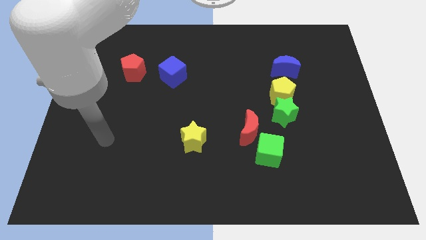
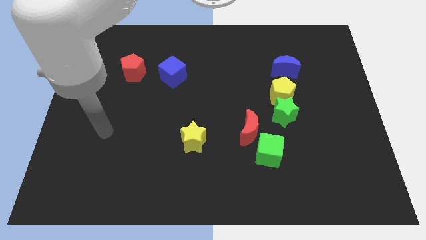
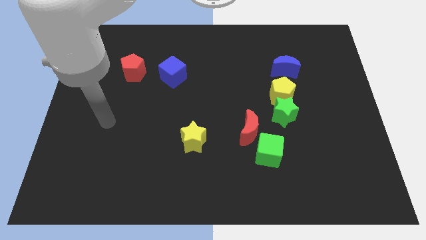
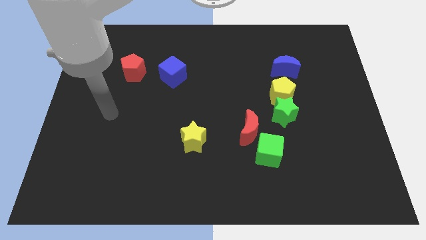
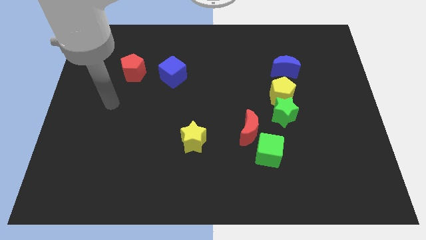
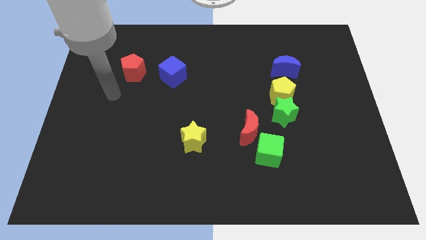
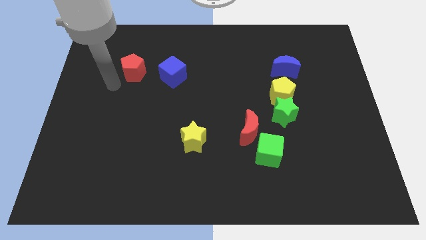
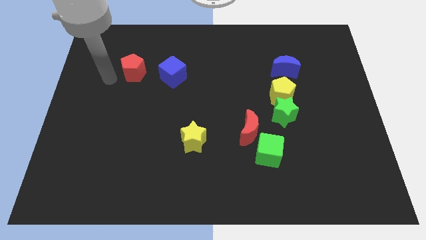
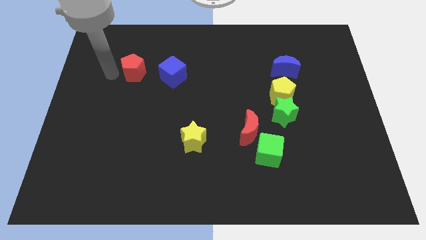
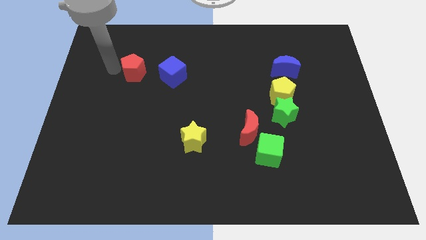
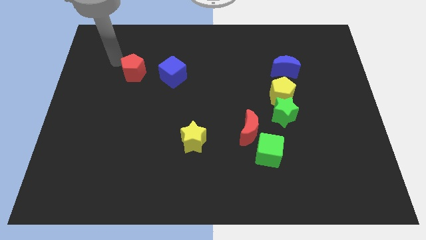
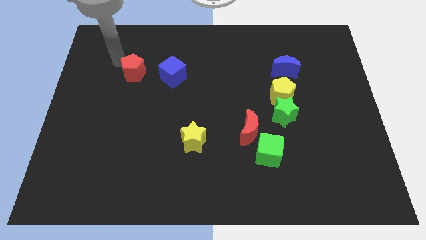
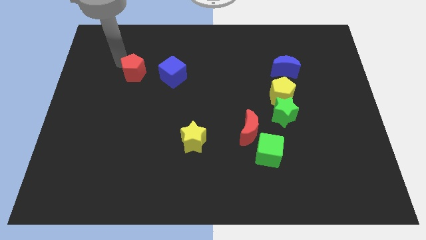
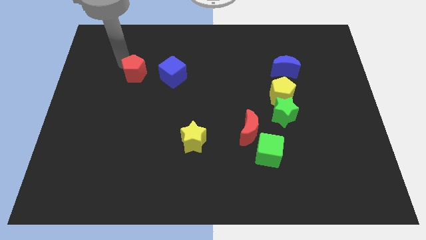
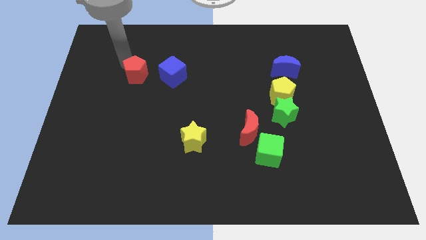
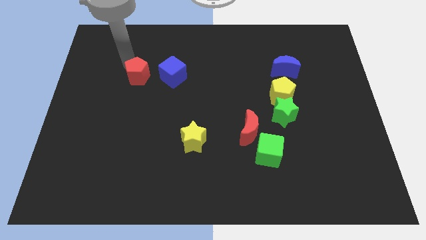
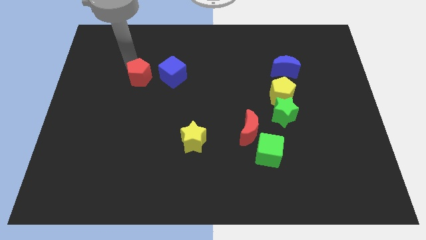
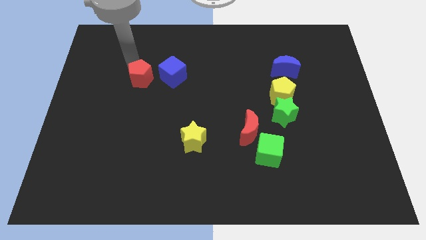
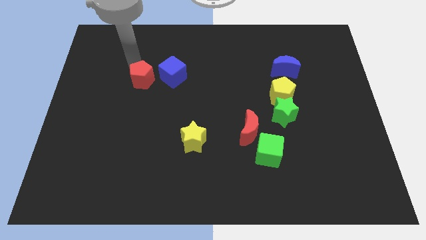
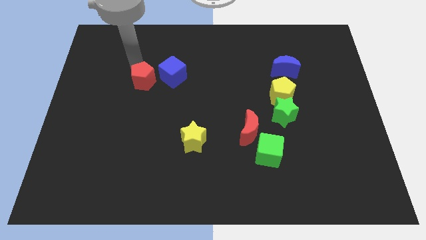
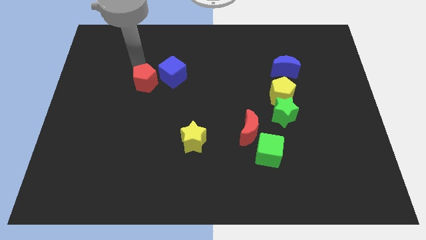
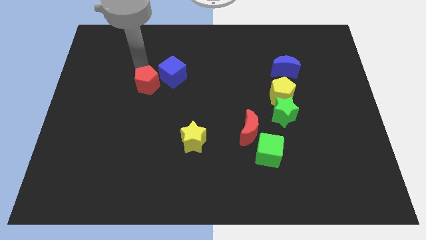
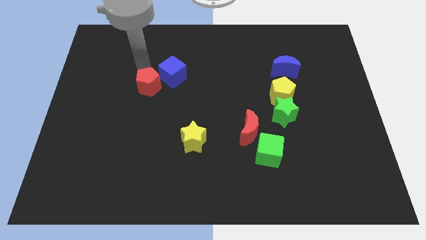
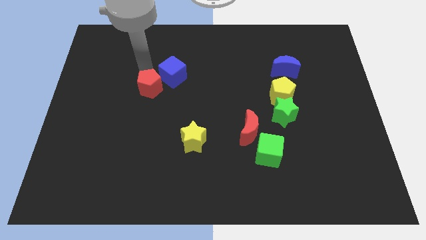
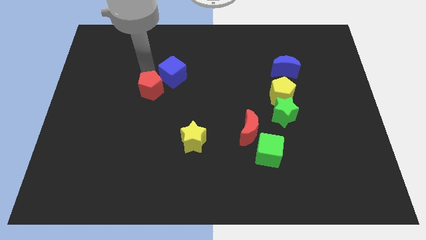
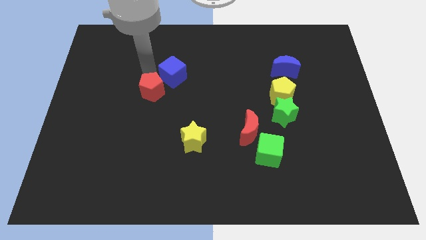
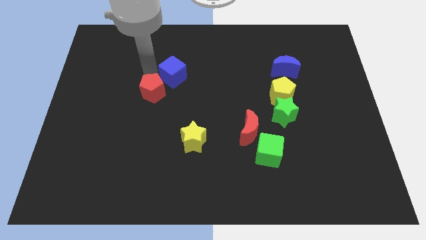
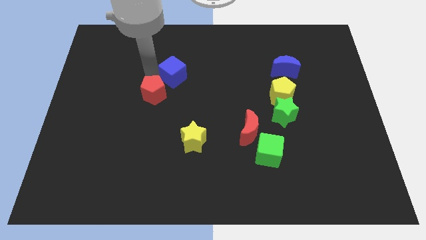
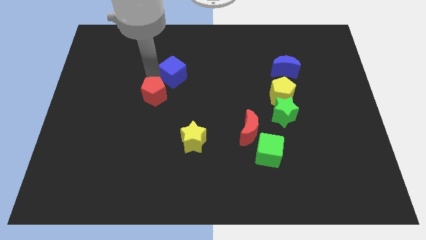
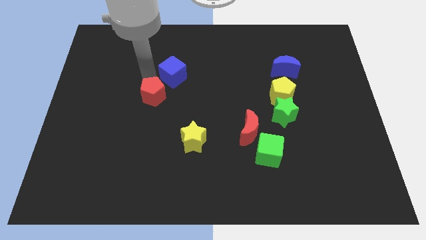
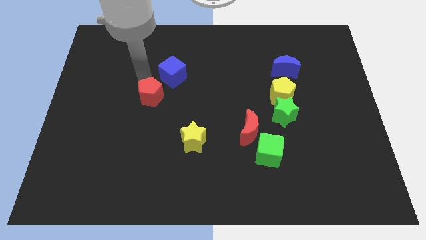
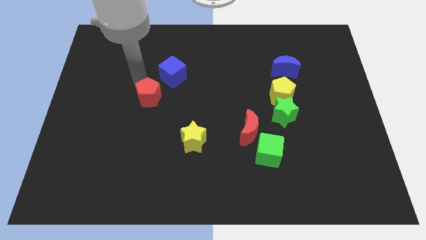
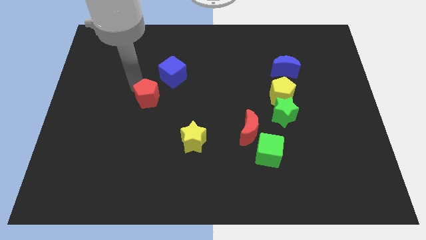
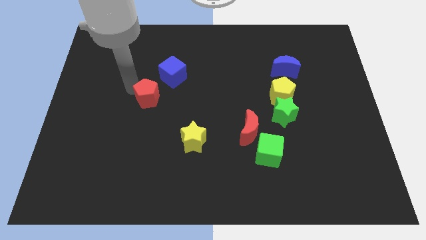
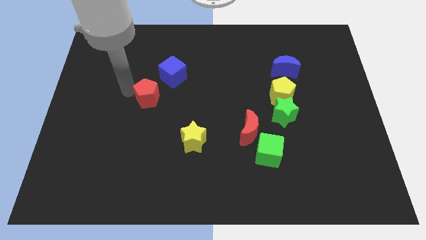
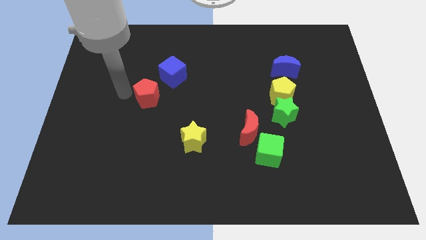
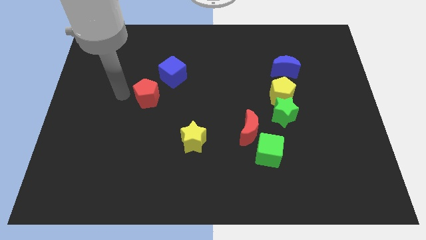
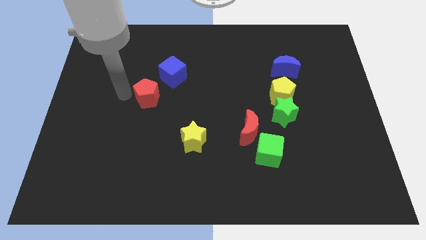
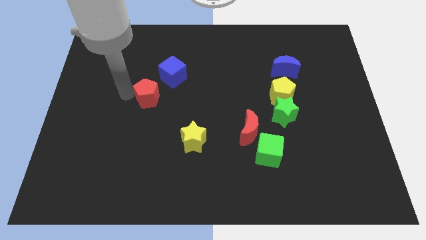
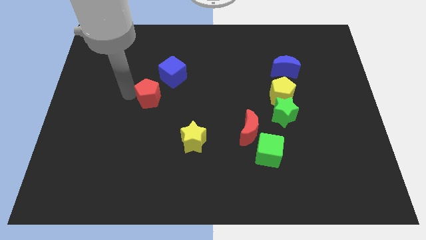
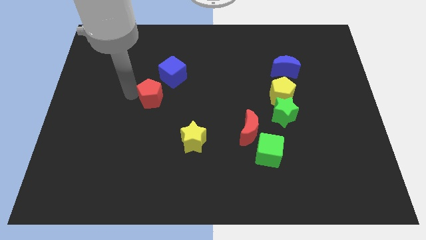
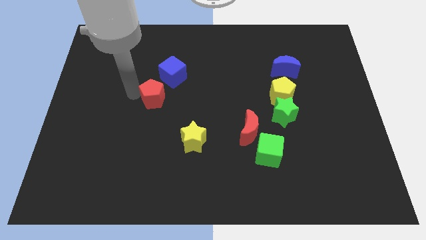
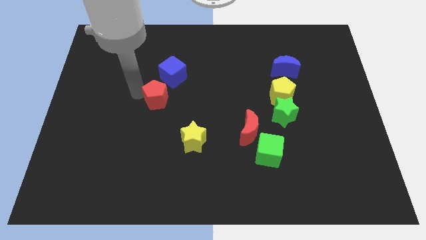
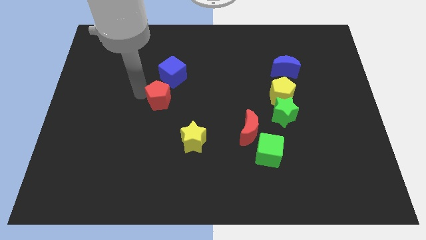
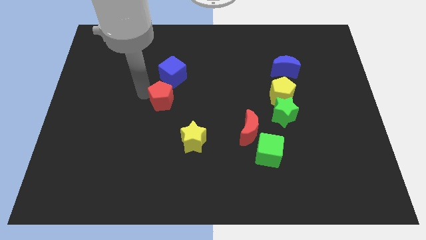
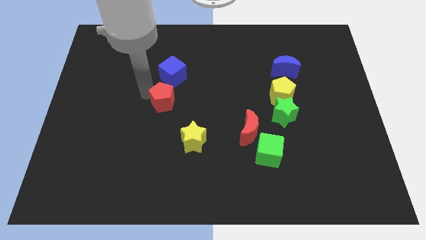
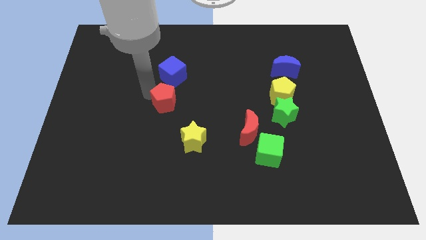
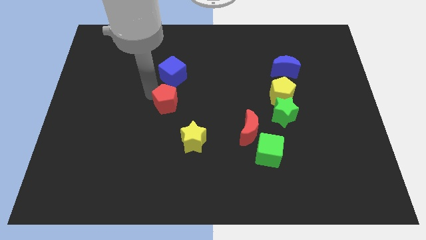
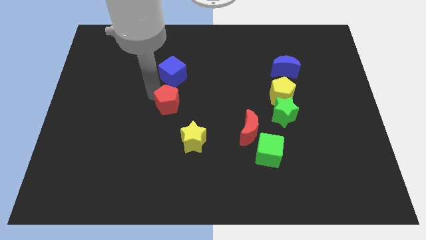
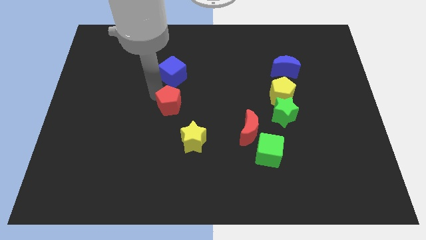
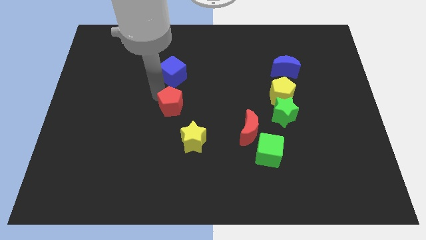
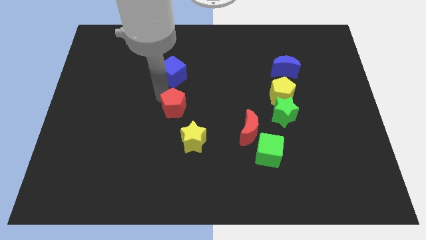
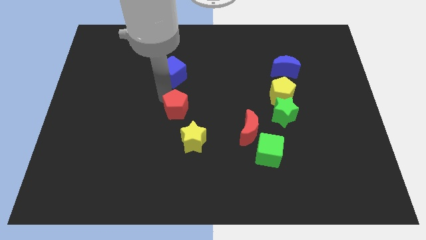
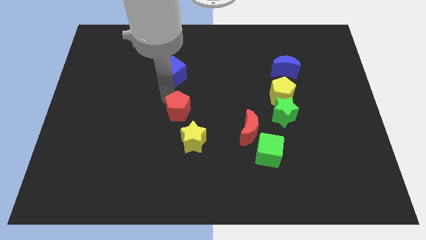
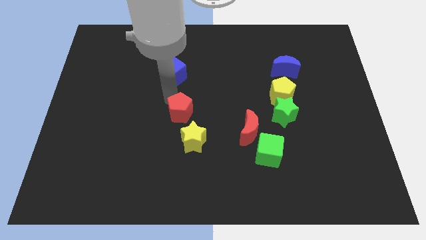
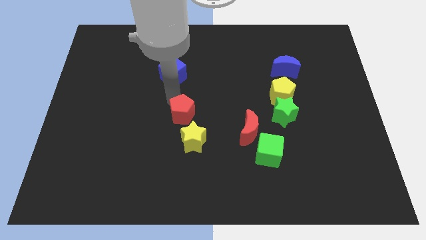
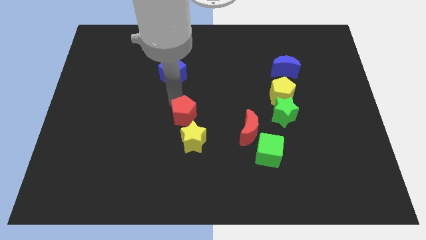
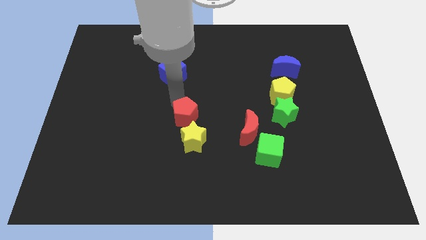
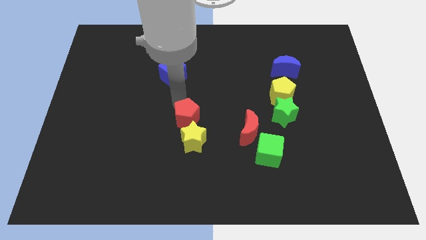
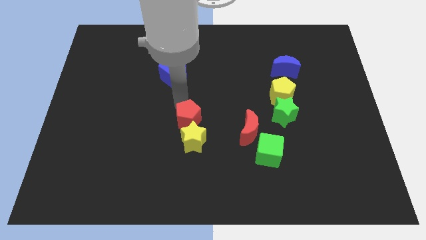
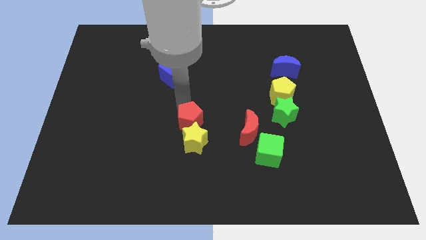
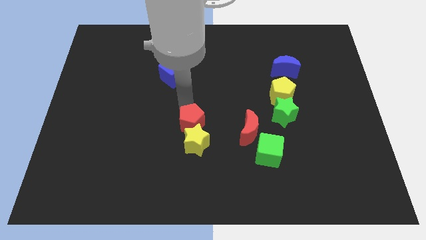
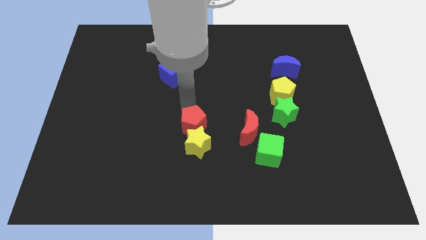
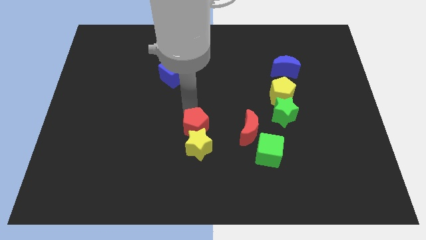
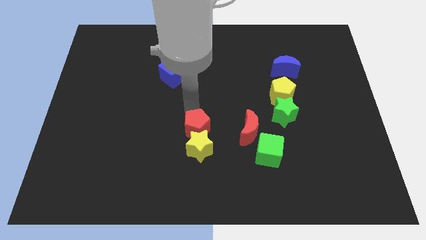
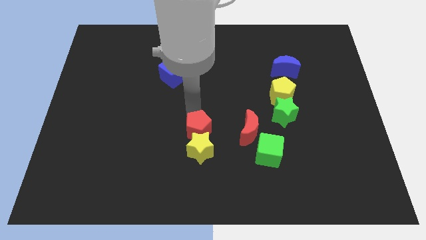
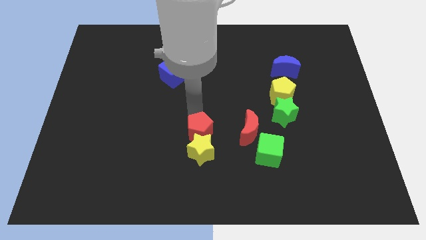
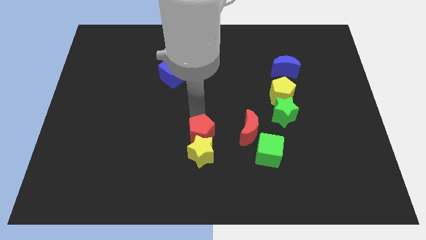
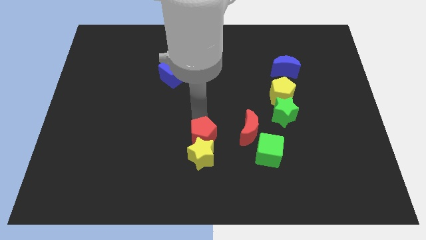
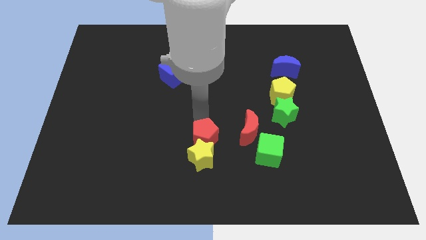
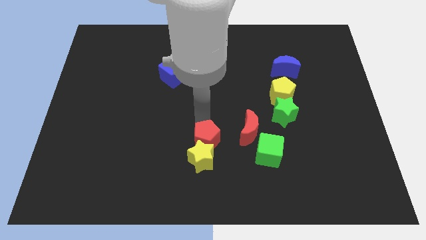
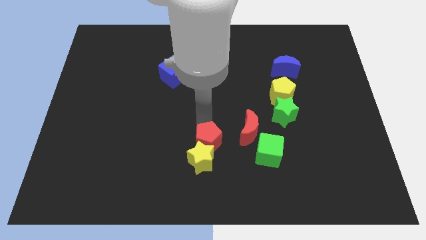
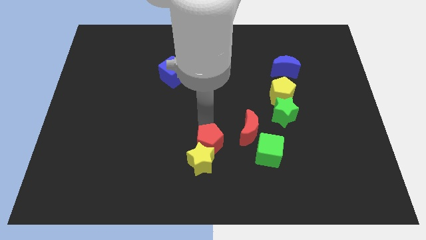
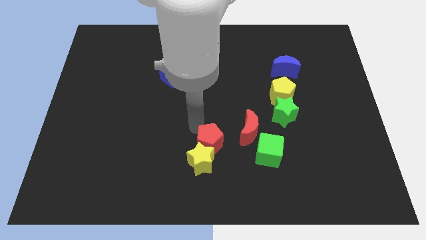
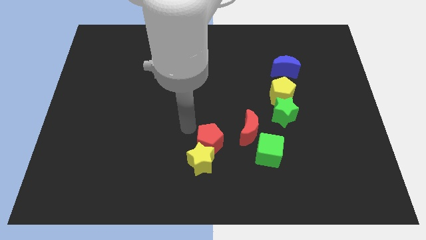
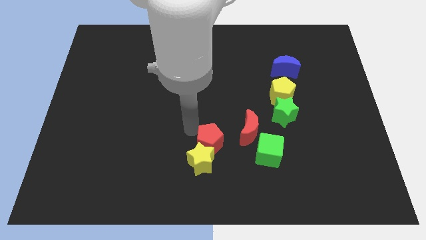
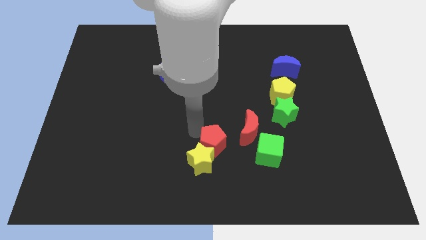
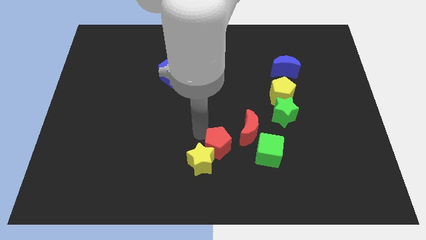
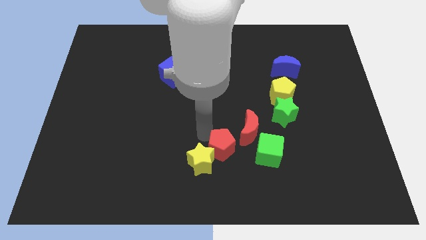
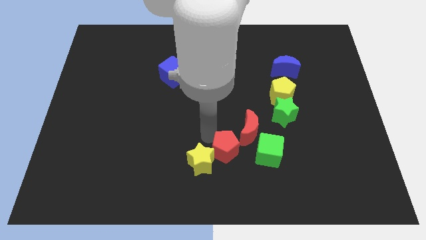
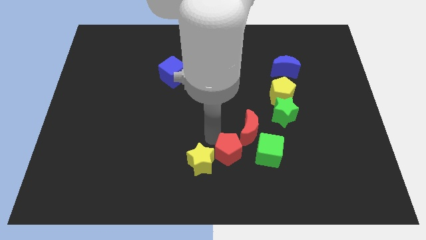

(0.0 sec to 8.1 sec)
push the red pentagon below the red moon
